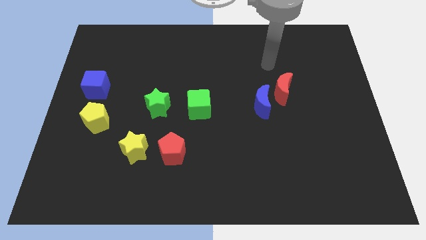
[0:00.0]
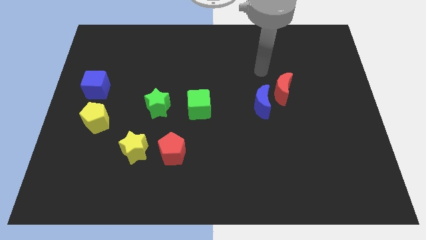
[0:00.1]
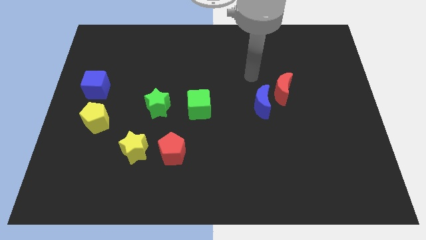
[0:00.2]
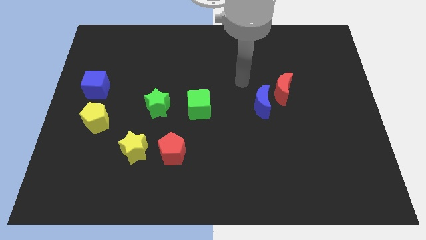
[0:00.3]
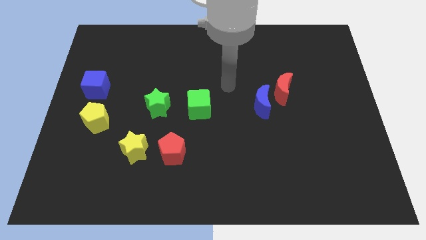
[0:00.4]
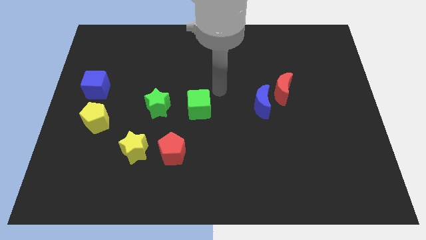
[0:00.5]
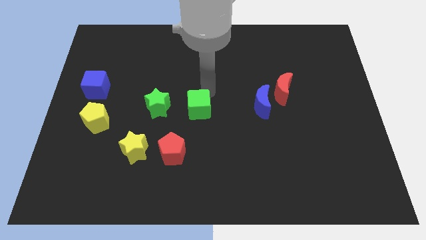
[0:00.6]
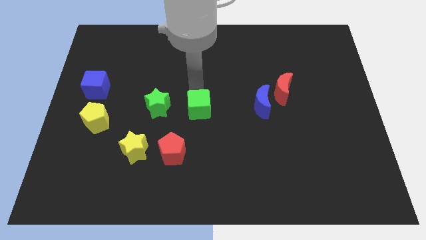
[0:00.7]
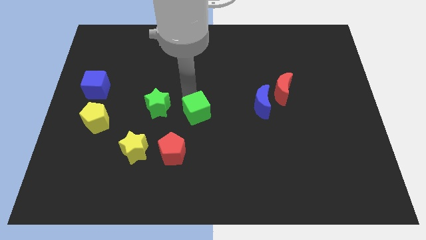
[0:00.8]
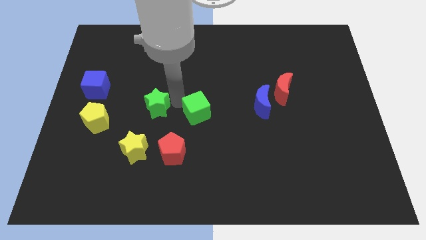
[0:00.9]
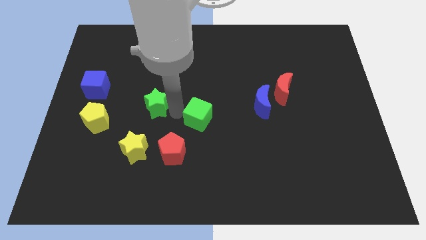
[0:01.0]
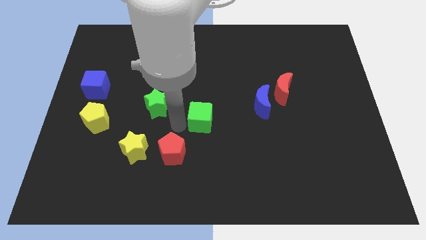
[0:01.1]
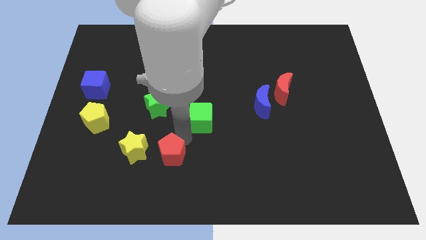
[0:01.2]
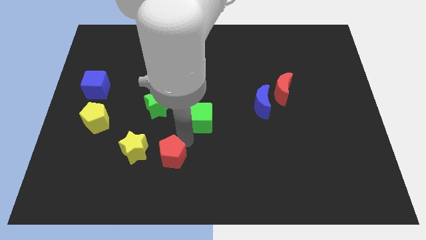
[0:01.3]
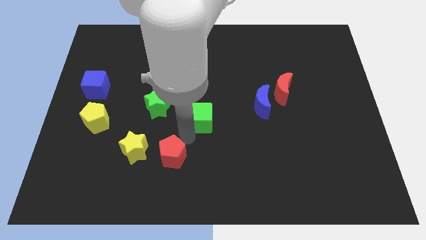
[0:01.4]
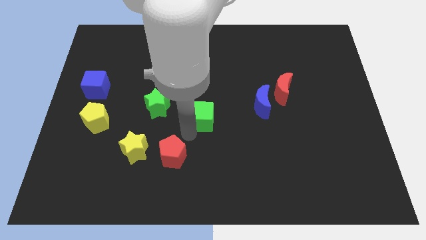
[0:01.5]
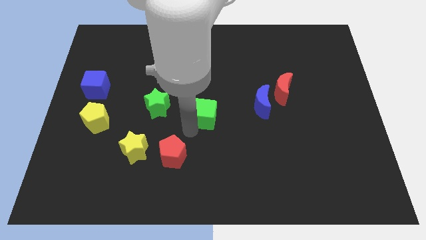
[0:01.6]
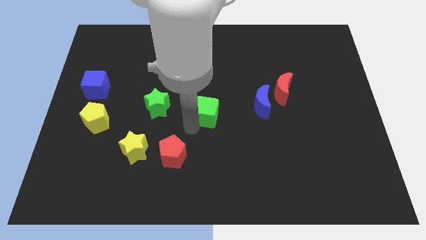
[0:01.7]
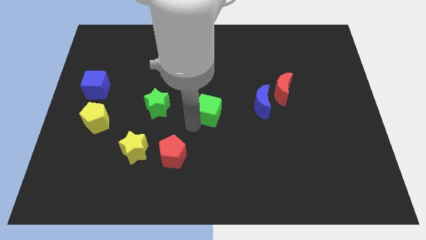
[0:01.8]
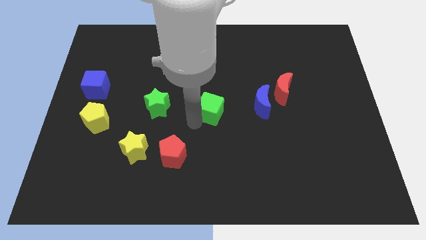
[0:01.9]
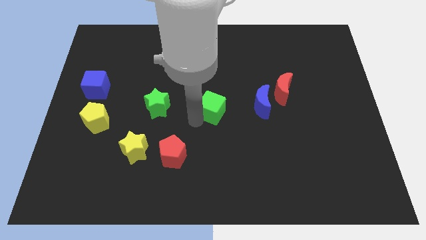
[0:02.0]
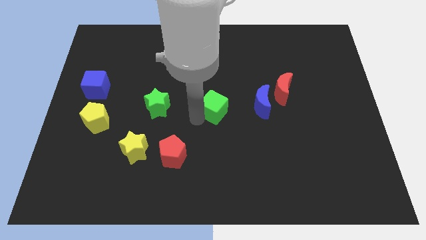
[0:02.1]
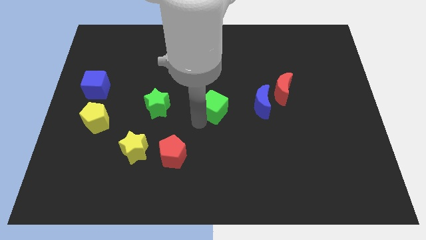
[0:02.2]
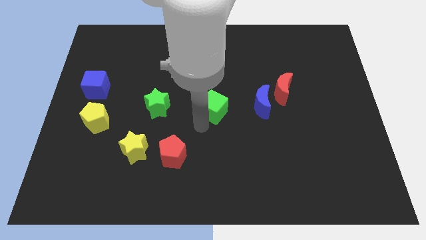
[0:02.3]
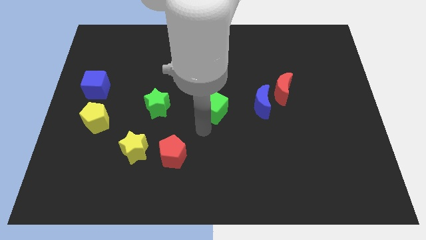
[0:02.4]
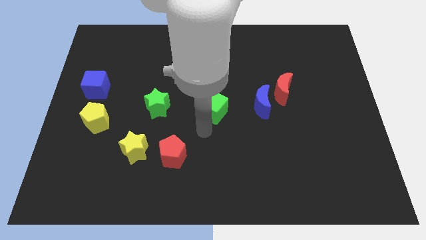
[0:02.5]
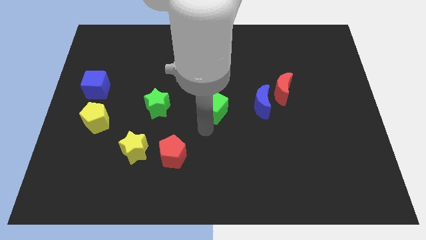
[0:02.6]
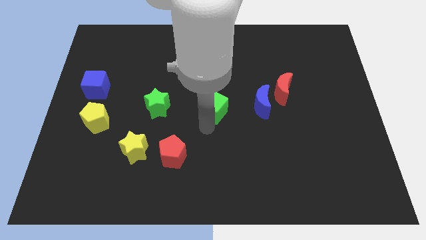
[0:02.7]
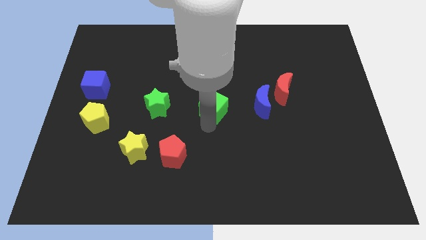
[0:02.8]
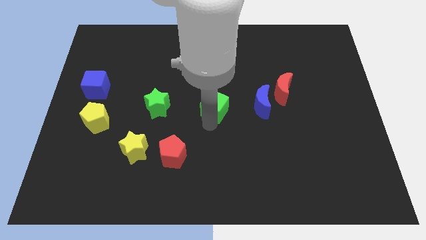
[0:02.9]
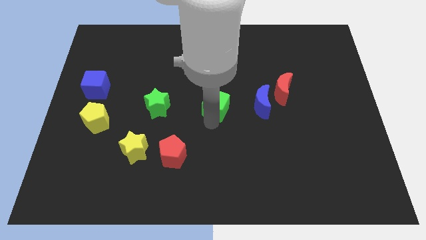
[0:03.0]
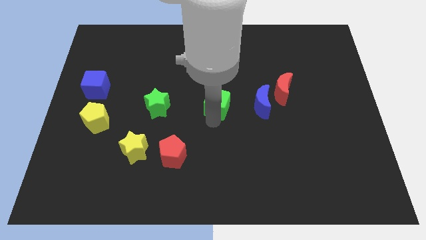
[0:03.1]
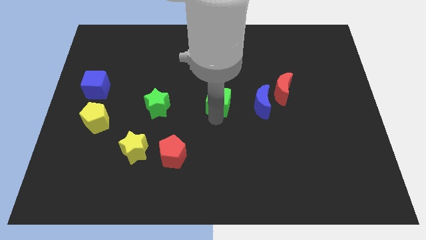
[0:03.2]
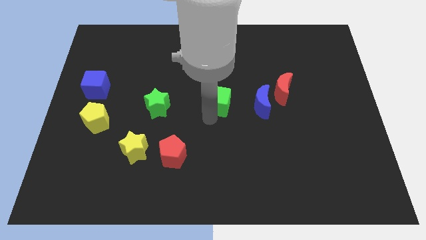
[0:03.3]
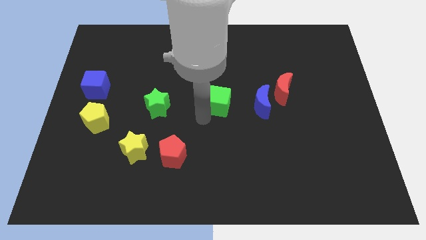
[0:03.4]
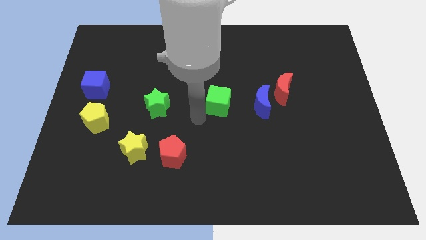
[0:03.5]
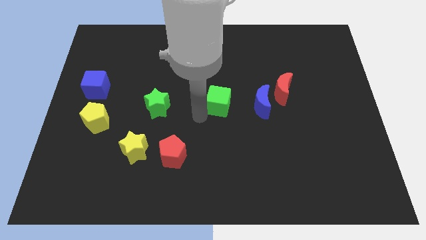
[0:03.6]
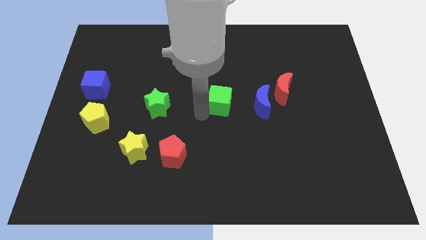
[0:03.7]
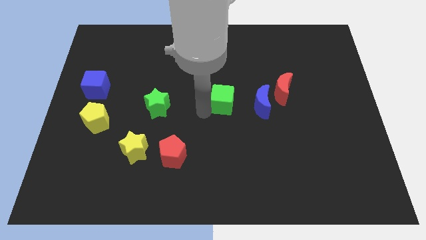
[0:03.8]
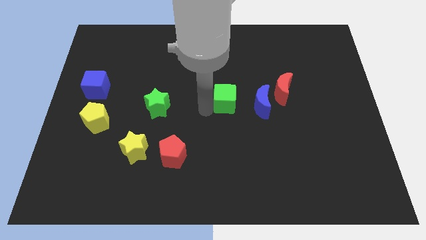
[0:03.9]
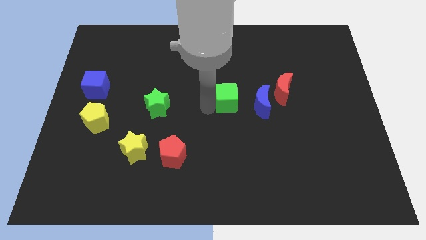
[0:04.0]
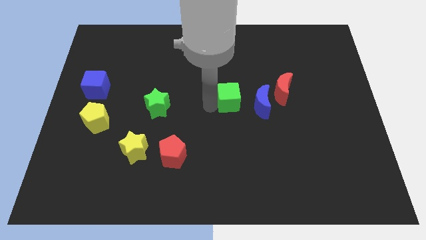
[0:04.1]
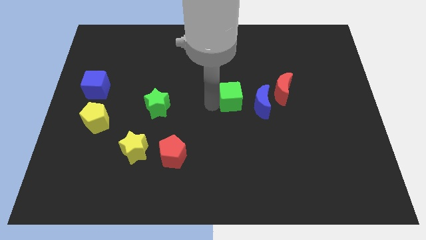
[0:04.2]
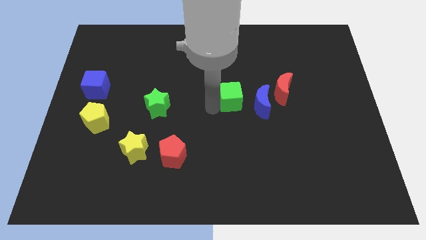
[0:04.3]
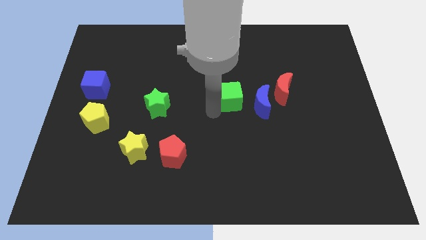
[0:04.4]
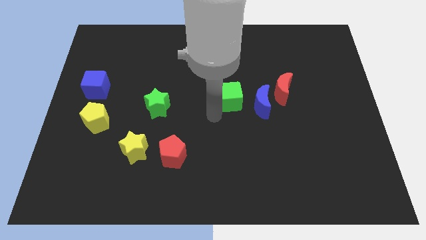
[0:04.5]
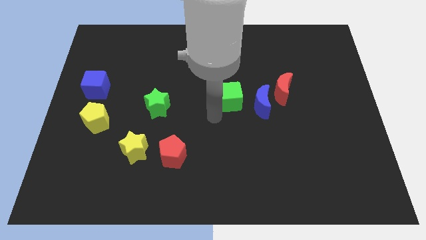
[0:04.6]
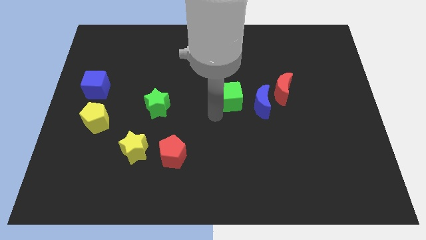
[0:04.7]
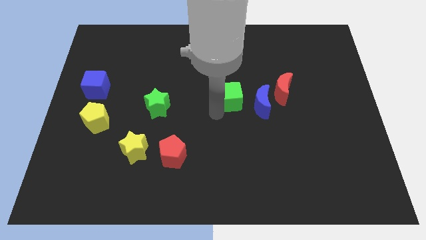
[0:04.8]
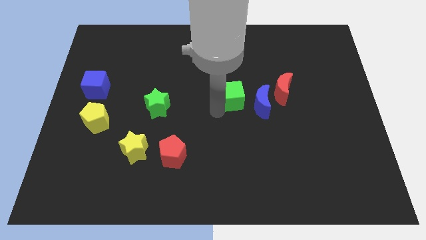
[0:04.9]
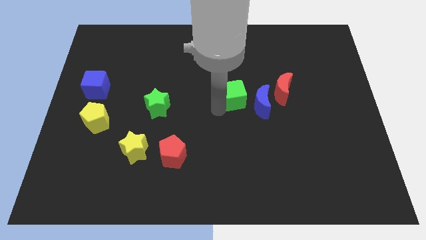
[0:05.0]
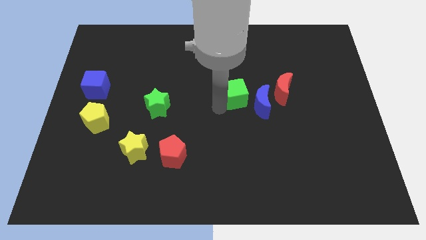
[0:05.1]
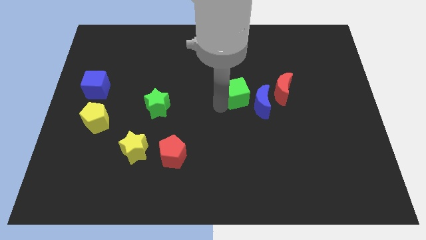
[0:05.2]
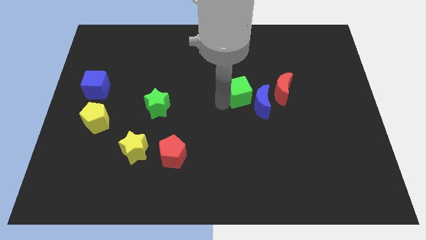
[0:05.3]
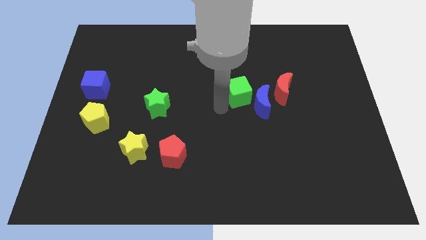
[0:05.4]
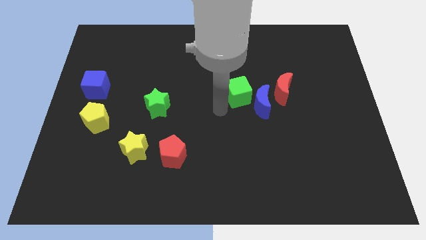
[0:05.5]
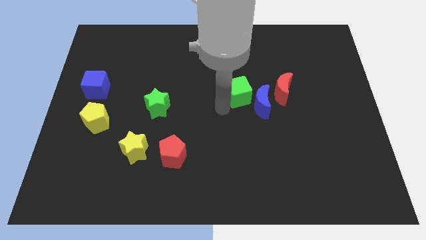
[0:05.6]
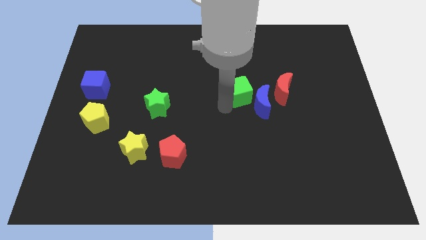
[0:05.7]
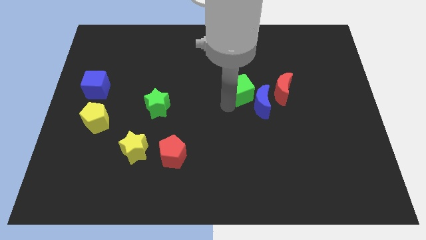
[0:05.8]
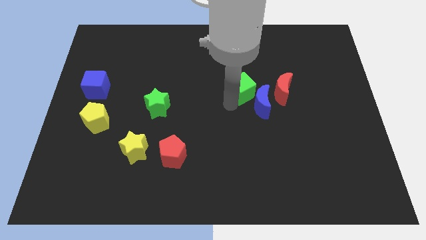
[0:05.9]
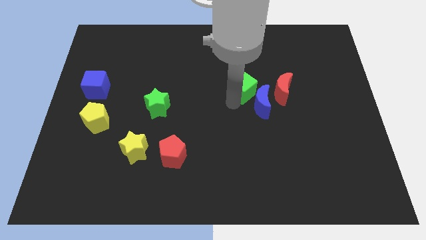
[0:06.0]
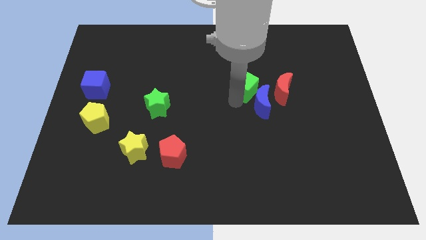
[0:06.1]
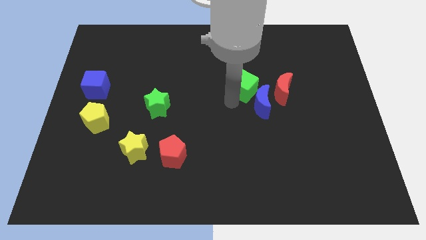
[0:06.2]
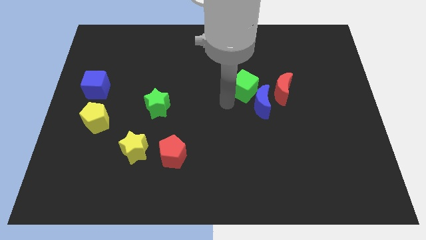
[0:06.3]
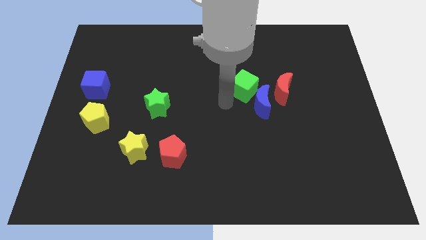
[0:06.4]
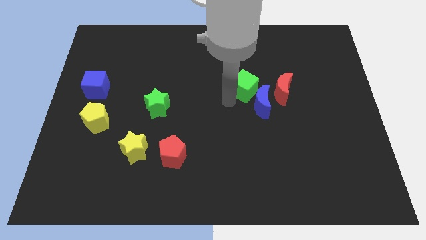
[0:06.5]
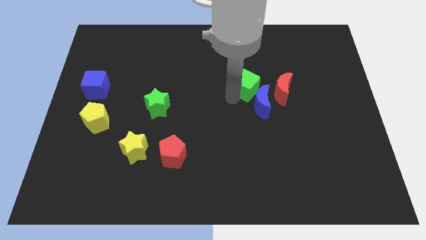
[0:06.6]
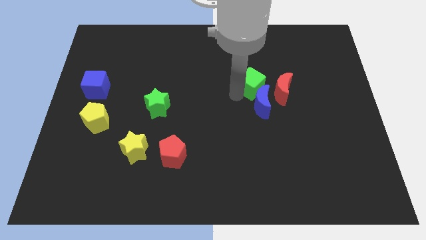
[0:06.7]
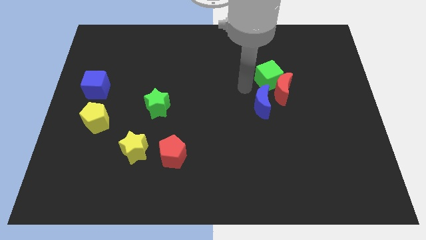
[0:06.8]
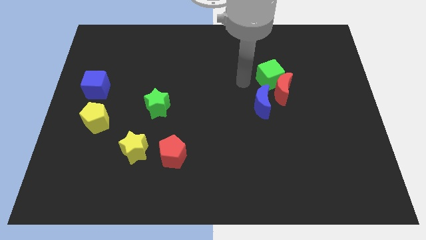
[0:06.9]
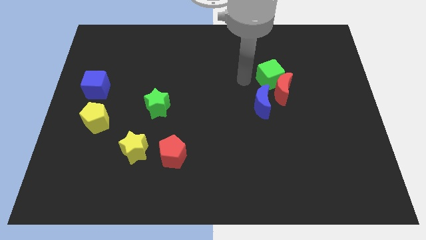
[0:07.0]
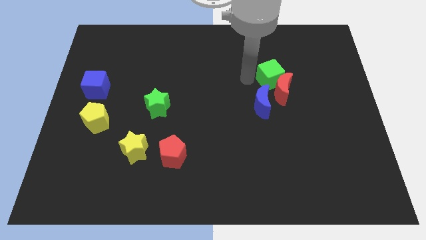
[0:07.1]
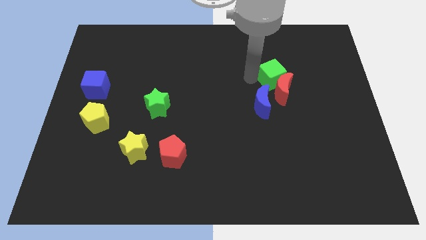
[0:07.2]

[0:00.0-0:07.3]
move the green cube diagonally up and to the right of the red moon

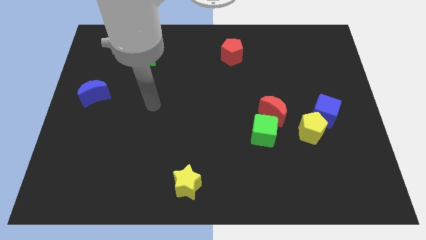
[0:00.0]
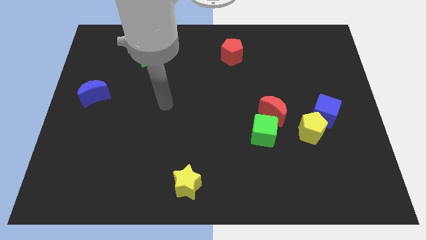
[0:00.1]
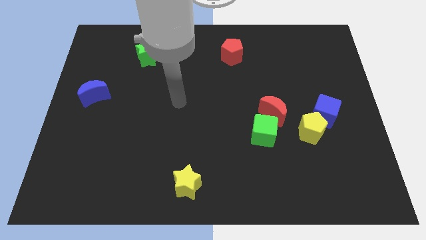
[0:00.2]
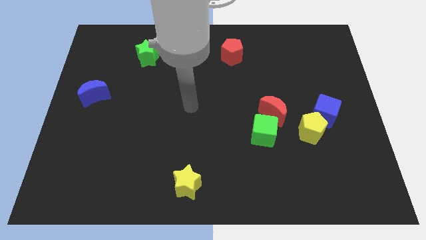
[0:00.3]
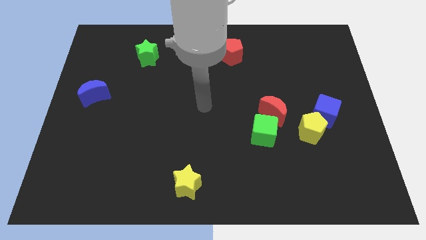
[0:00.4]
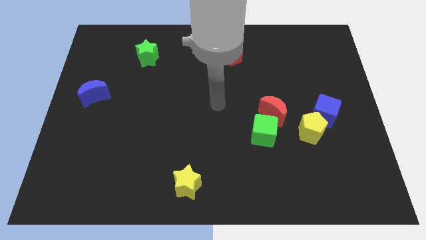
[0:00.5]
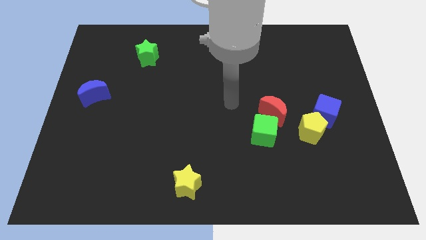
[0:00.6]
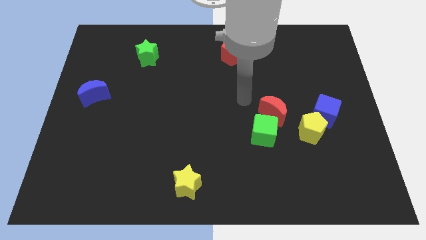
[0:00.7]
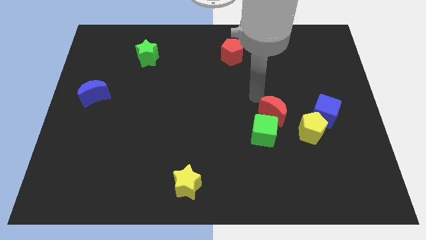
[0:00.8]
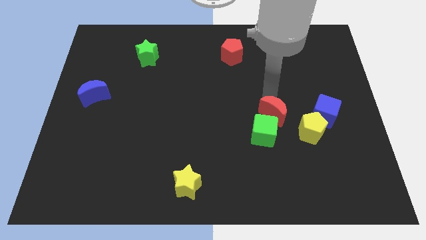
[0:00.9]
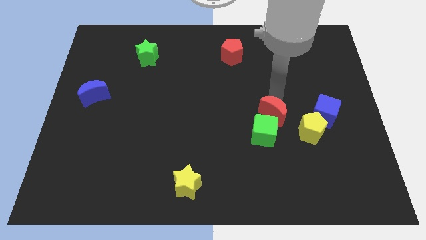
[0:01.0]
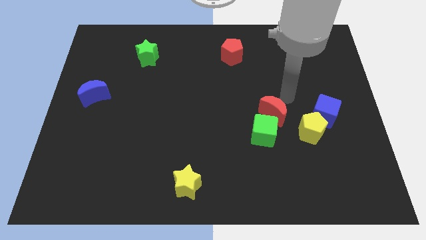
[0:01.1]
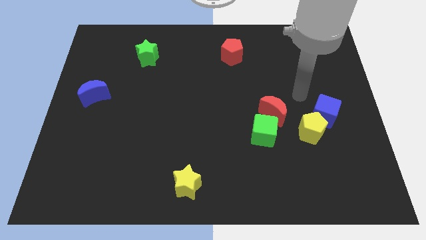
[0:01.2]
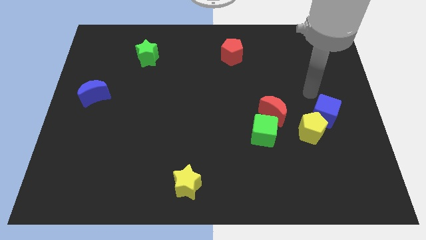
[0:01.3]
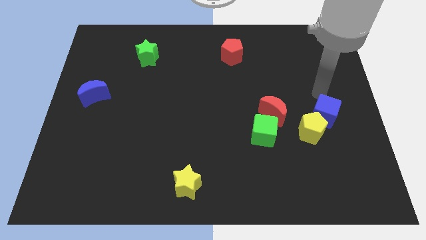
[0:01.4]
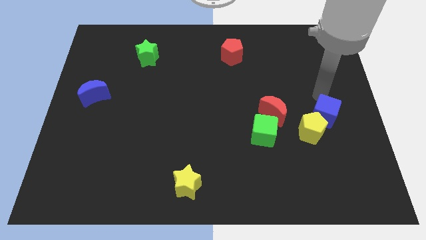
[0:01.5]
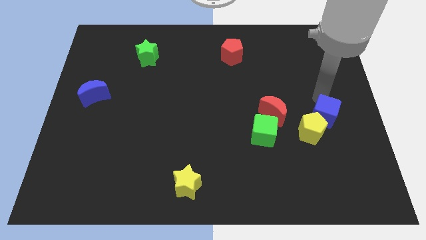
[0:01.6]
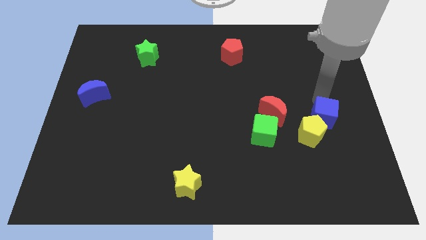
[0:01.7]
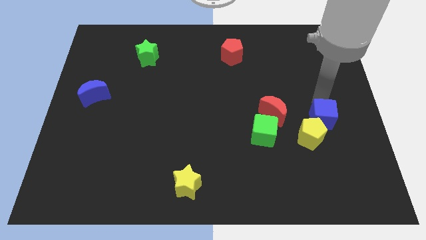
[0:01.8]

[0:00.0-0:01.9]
slide the blue cube just right of the green cube
